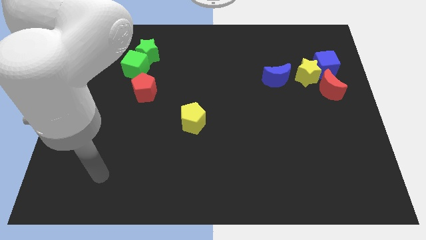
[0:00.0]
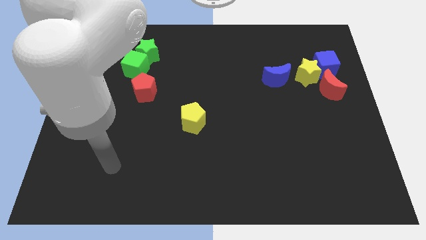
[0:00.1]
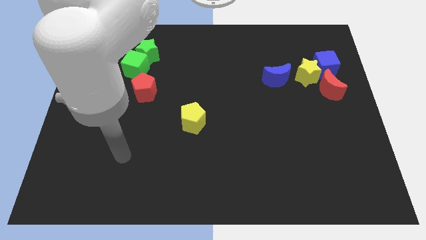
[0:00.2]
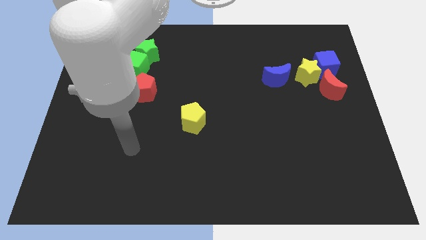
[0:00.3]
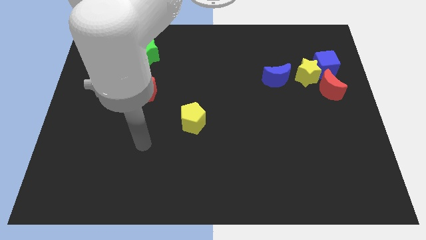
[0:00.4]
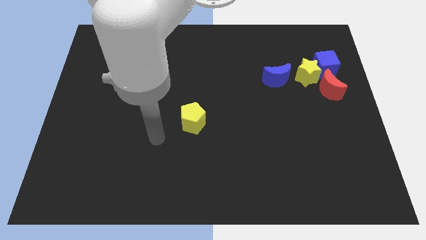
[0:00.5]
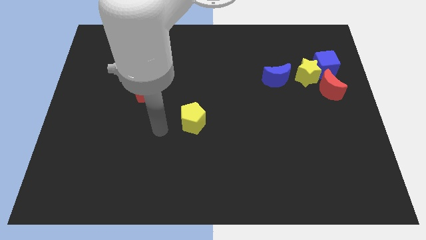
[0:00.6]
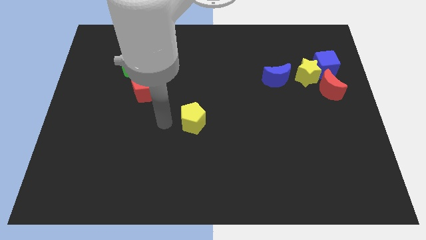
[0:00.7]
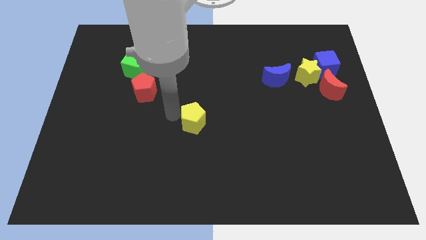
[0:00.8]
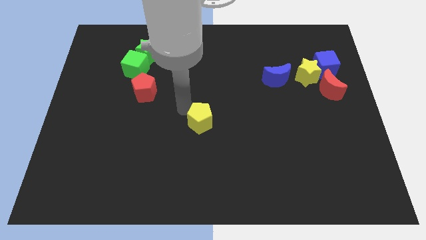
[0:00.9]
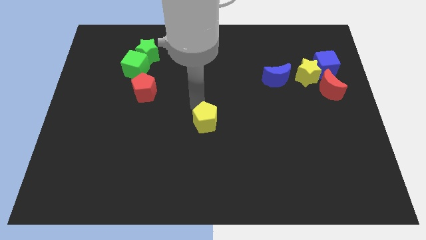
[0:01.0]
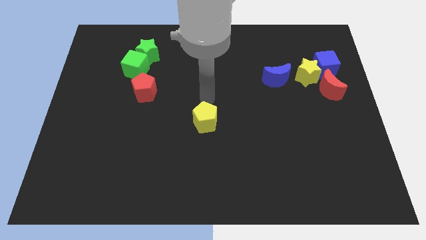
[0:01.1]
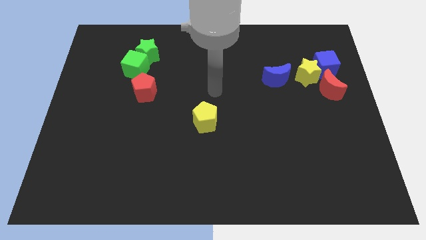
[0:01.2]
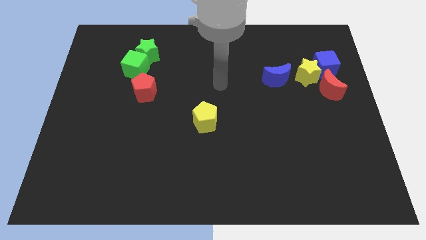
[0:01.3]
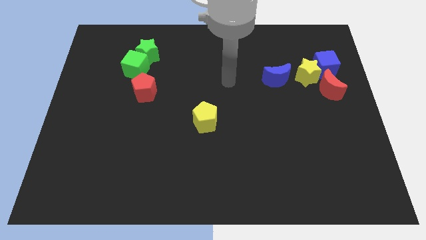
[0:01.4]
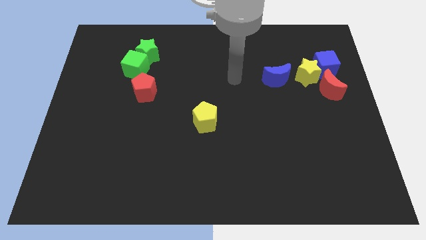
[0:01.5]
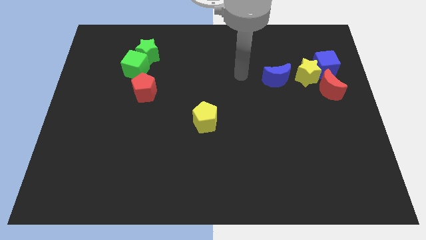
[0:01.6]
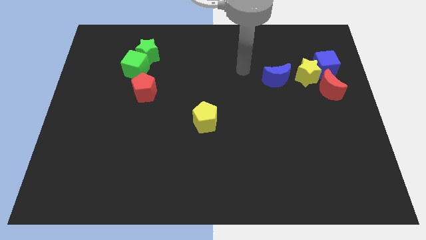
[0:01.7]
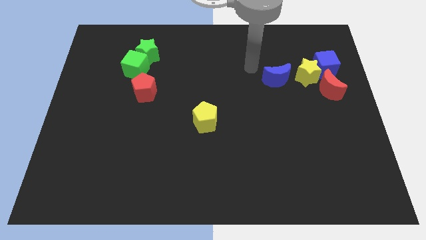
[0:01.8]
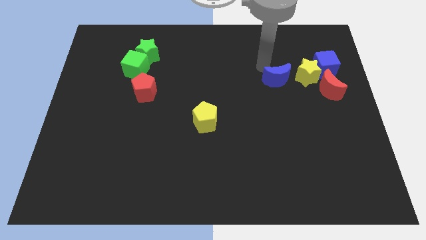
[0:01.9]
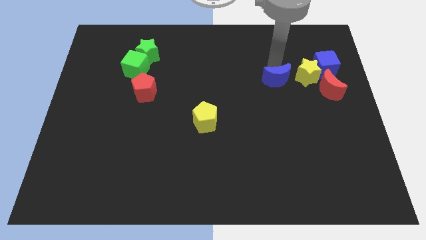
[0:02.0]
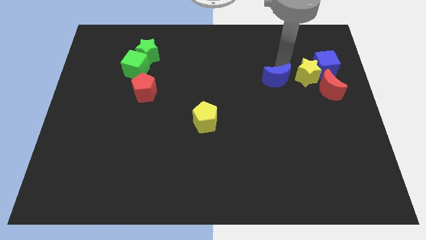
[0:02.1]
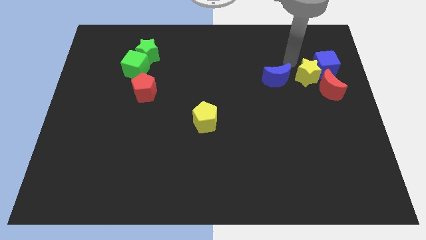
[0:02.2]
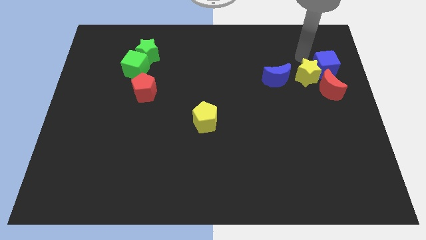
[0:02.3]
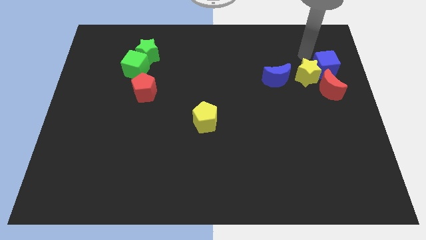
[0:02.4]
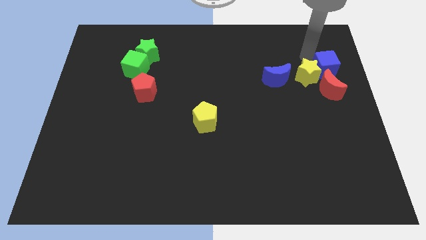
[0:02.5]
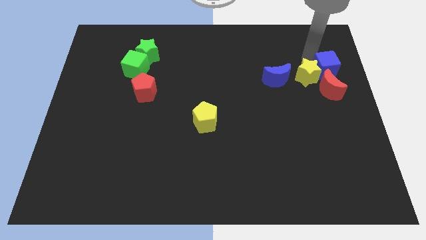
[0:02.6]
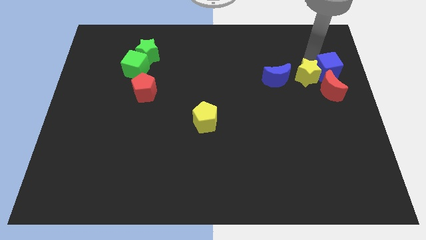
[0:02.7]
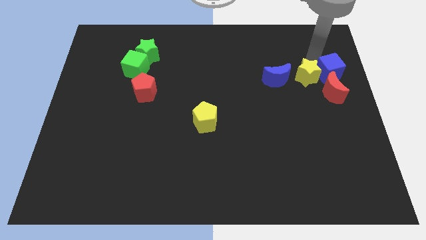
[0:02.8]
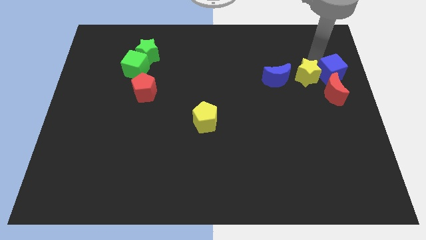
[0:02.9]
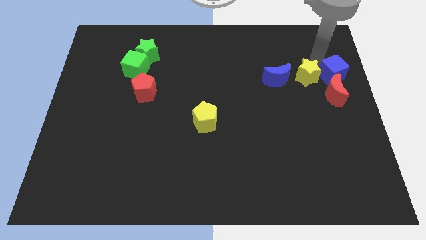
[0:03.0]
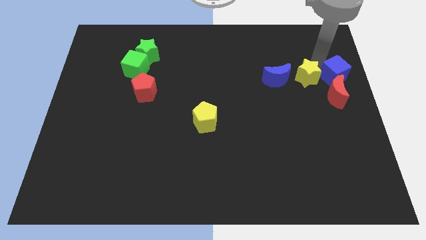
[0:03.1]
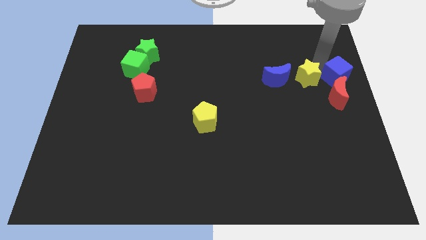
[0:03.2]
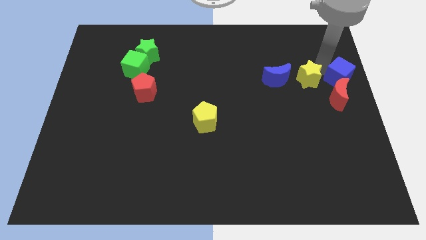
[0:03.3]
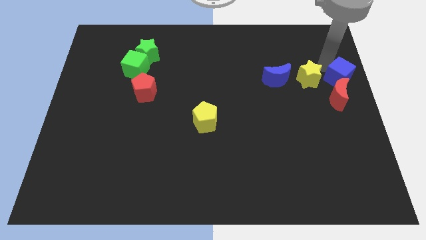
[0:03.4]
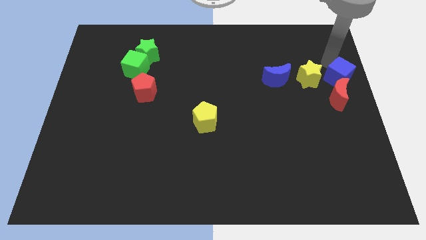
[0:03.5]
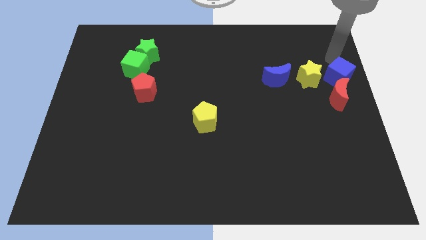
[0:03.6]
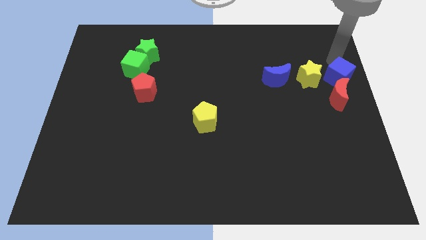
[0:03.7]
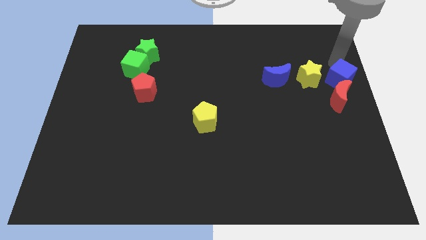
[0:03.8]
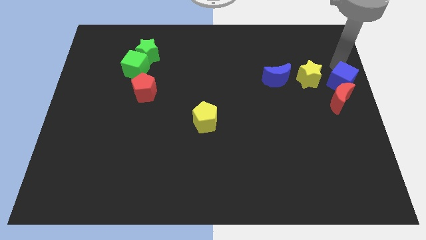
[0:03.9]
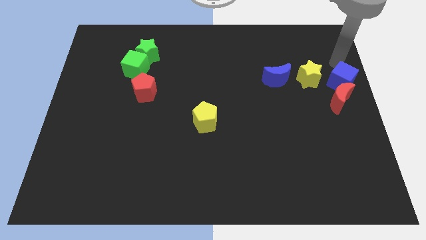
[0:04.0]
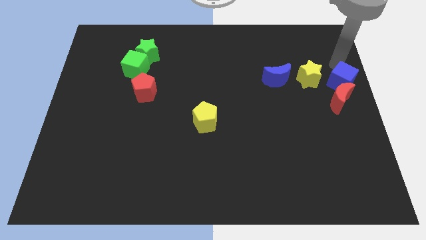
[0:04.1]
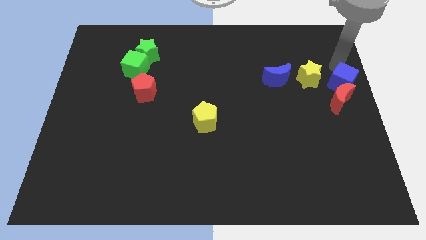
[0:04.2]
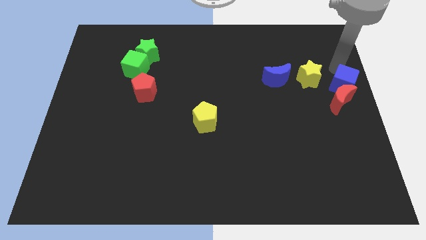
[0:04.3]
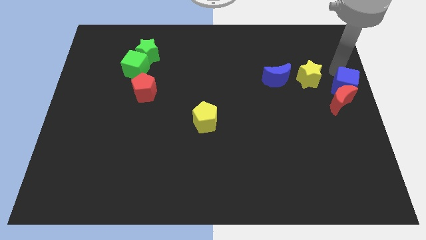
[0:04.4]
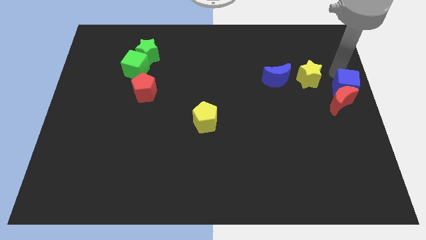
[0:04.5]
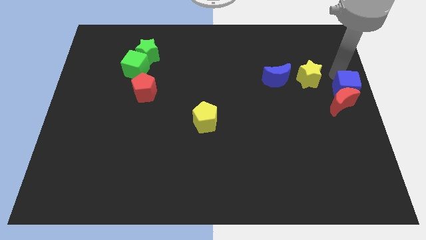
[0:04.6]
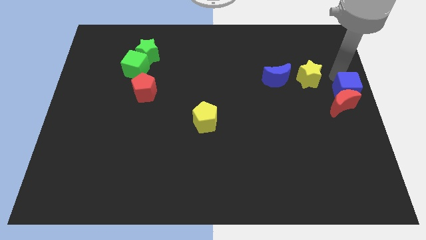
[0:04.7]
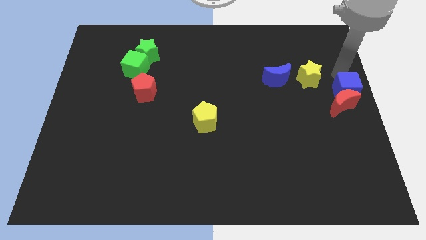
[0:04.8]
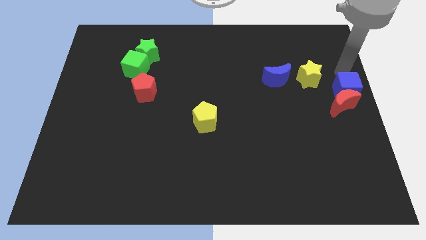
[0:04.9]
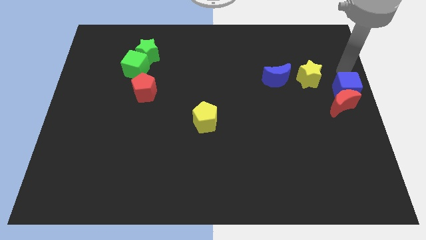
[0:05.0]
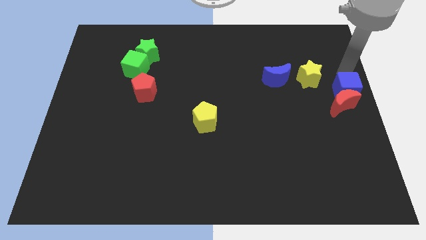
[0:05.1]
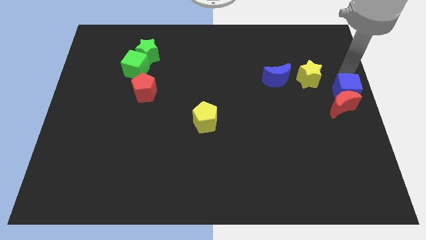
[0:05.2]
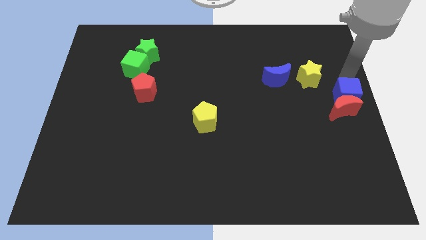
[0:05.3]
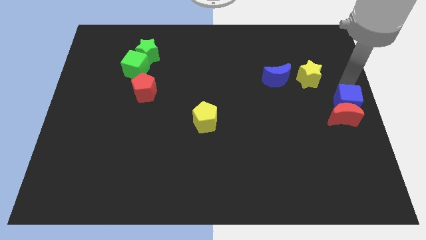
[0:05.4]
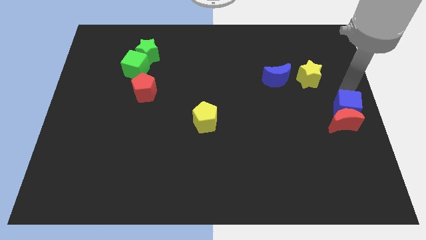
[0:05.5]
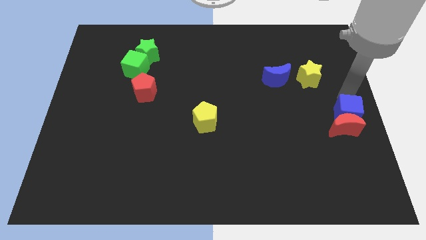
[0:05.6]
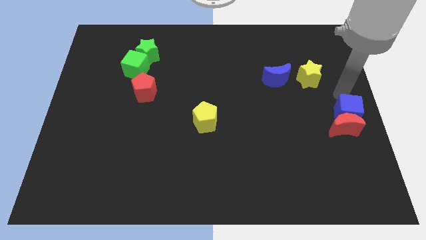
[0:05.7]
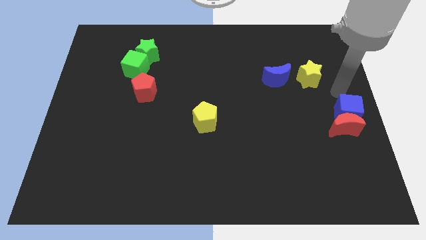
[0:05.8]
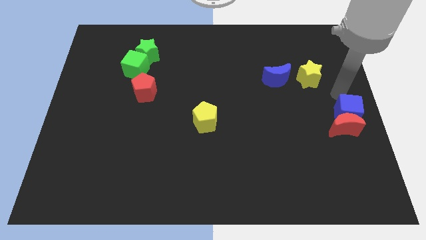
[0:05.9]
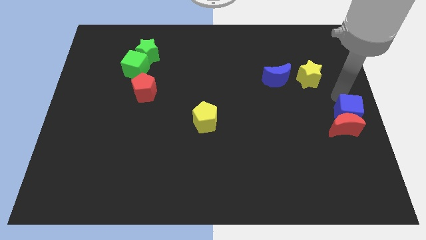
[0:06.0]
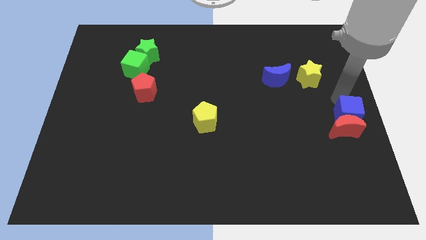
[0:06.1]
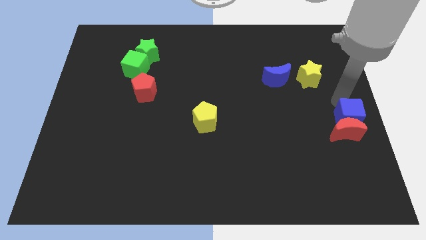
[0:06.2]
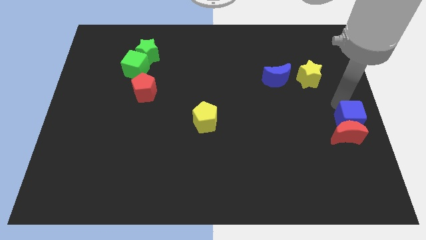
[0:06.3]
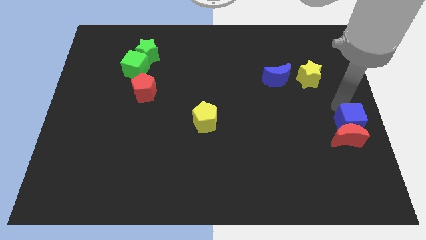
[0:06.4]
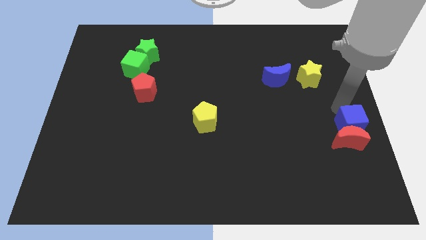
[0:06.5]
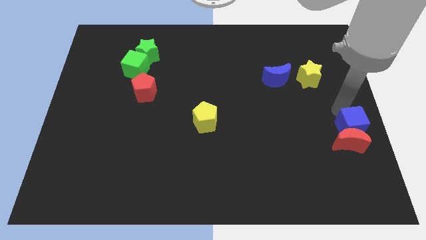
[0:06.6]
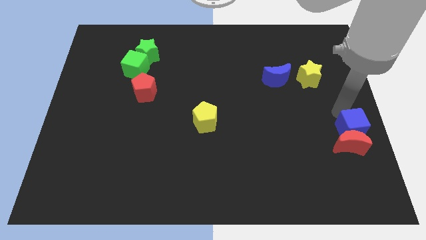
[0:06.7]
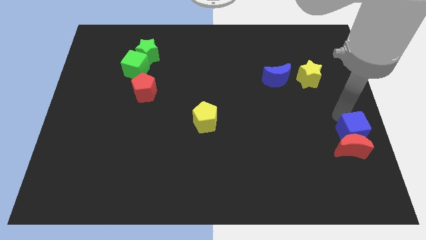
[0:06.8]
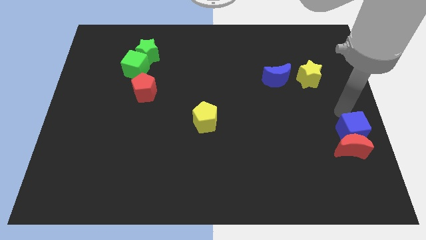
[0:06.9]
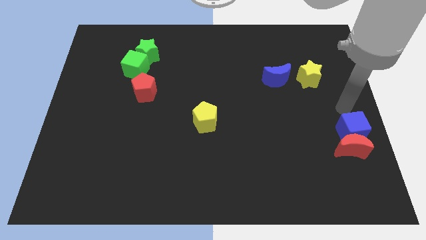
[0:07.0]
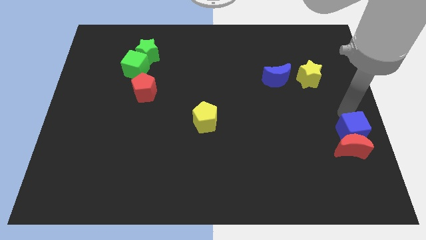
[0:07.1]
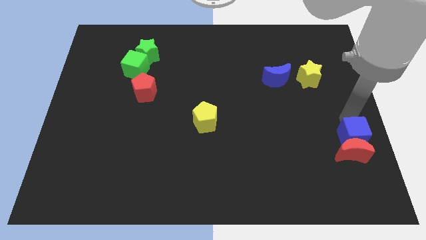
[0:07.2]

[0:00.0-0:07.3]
move the blue cube down

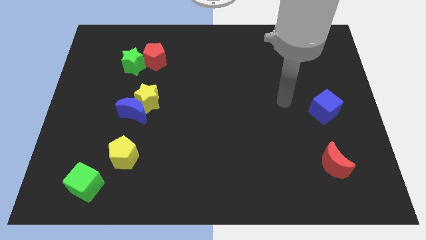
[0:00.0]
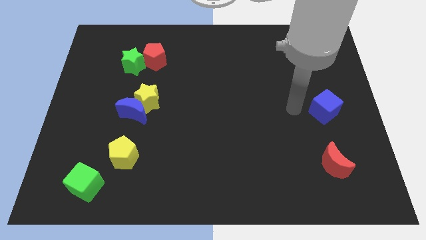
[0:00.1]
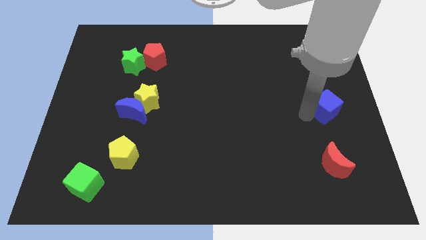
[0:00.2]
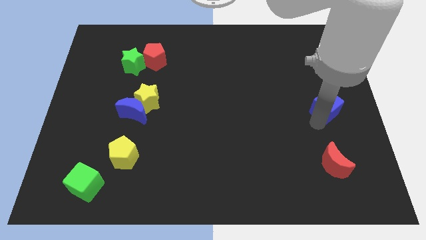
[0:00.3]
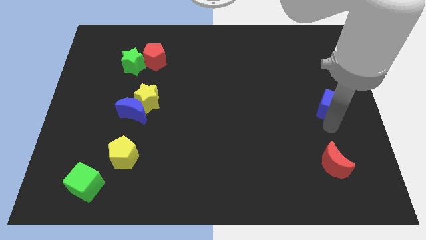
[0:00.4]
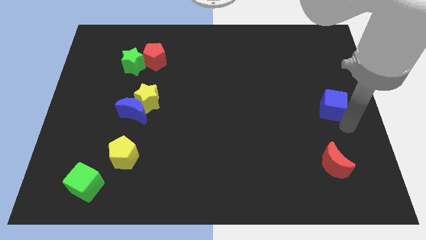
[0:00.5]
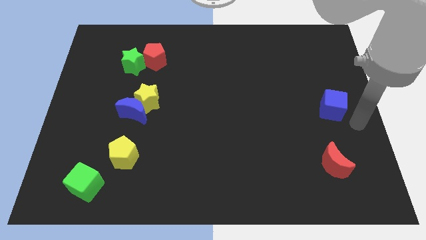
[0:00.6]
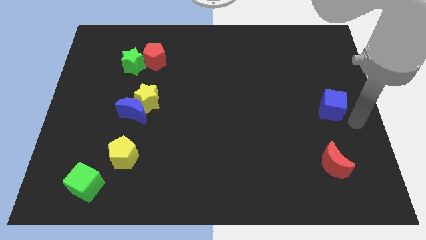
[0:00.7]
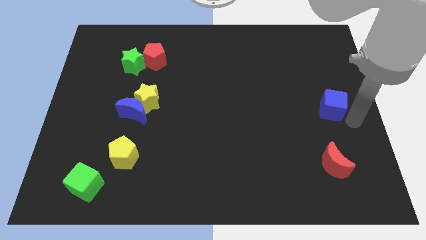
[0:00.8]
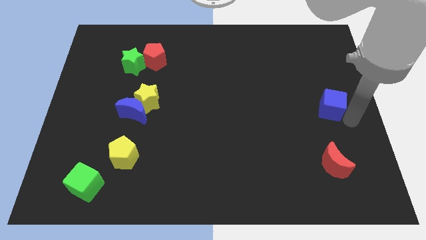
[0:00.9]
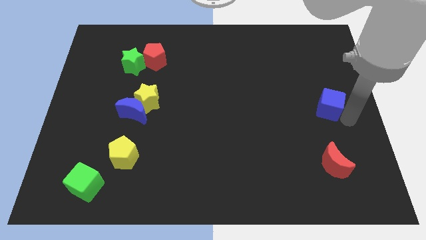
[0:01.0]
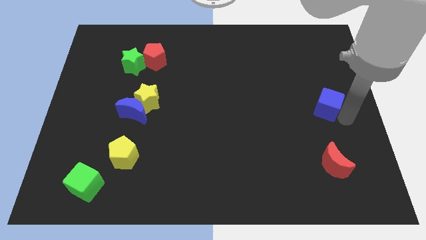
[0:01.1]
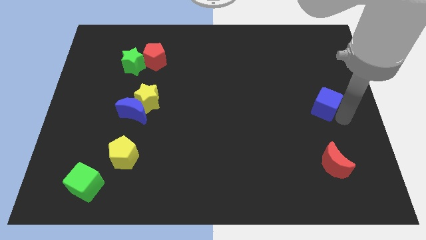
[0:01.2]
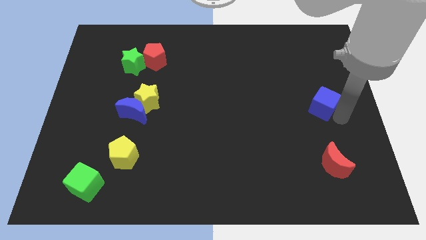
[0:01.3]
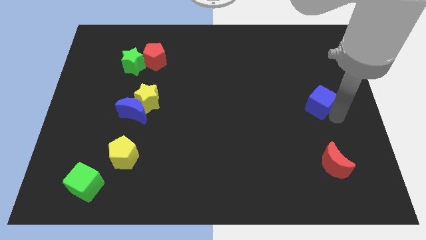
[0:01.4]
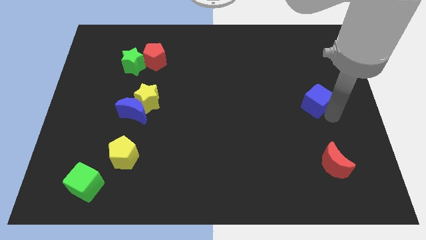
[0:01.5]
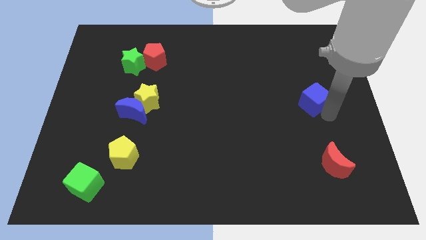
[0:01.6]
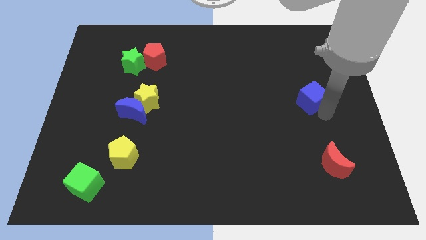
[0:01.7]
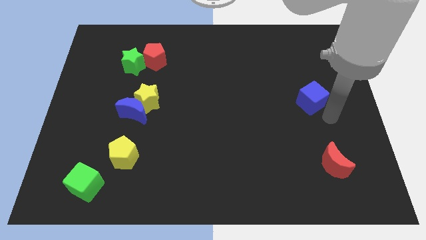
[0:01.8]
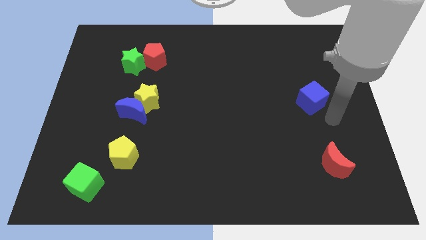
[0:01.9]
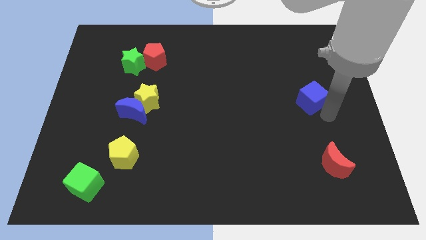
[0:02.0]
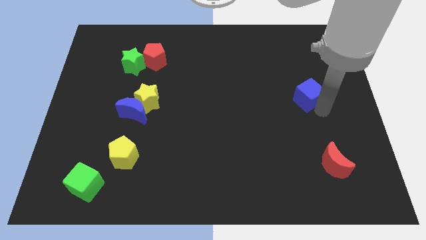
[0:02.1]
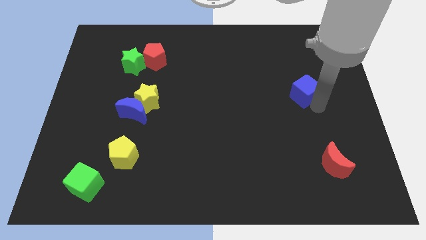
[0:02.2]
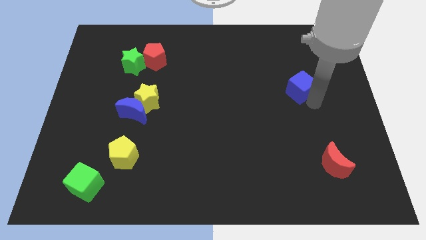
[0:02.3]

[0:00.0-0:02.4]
slightly push the blue cube up and left diagonally
